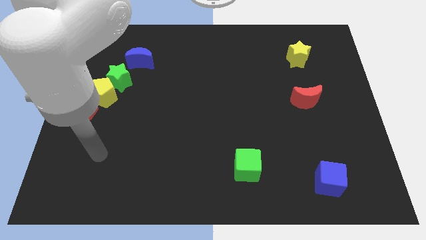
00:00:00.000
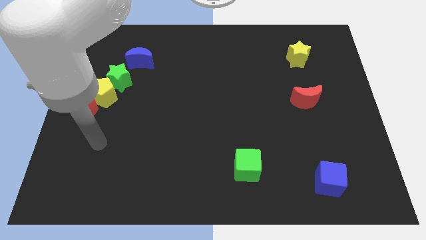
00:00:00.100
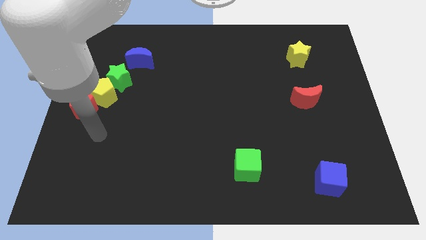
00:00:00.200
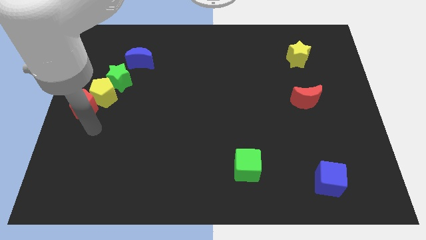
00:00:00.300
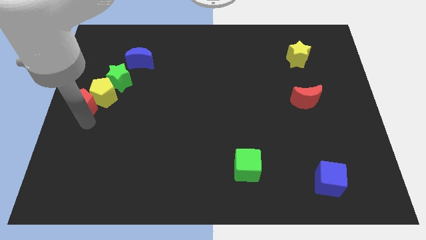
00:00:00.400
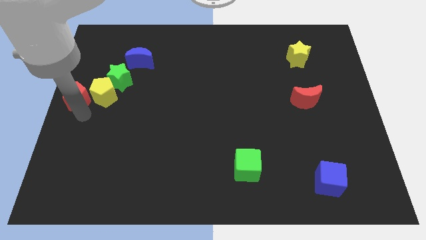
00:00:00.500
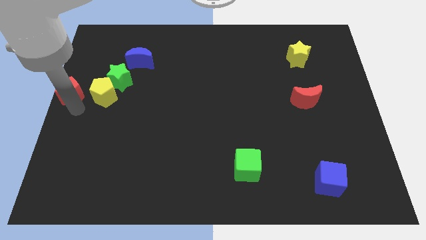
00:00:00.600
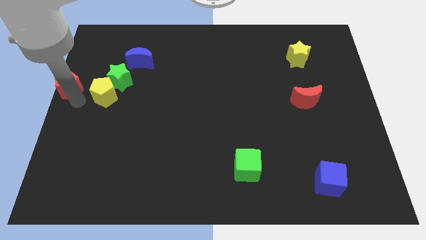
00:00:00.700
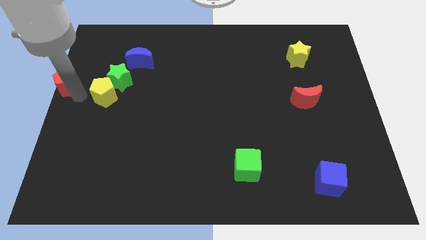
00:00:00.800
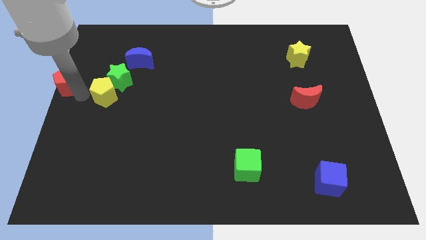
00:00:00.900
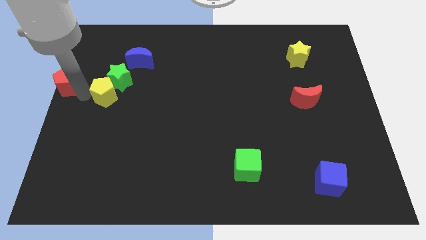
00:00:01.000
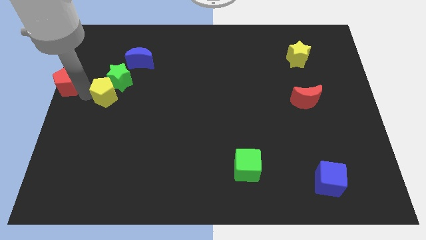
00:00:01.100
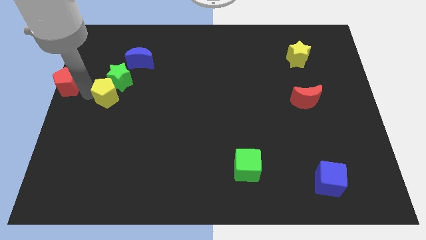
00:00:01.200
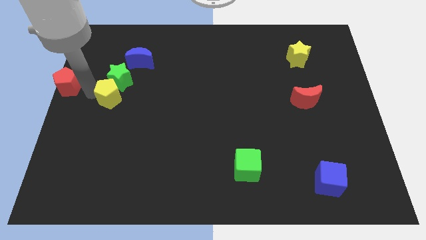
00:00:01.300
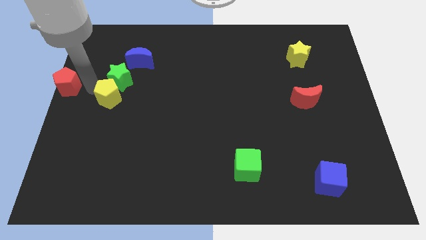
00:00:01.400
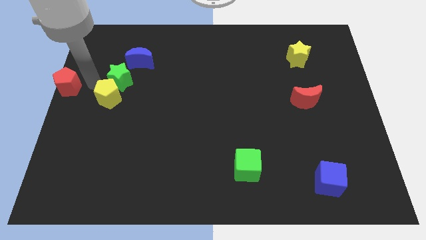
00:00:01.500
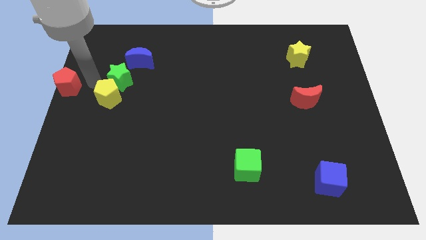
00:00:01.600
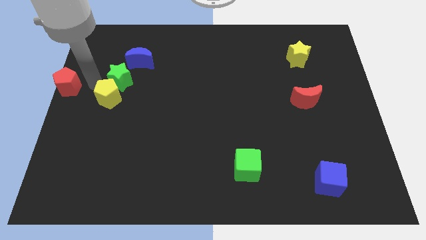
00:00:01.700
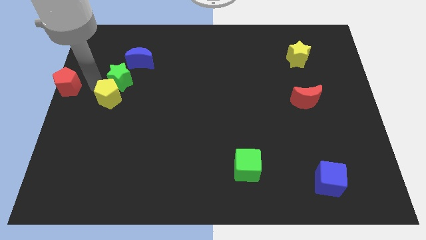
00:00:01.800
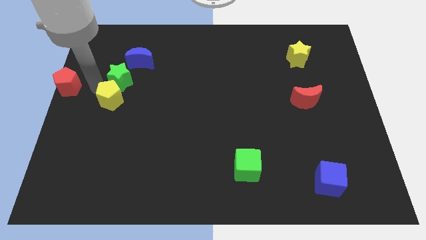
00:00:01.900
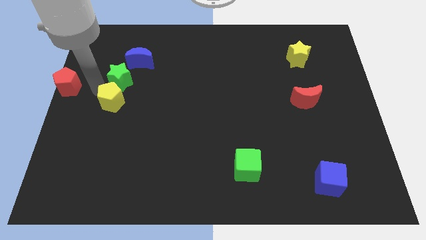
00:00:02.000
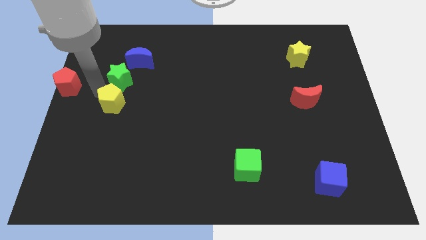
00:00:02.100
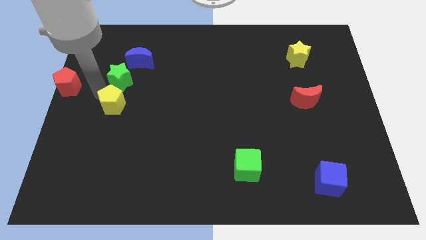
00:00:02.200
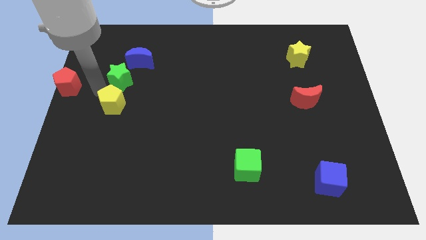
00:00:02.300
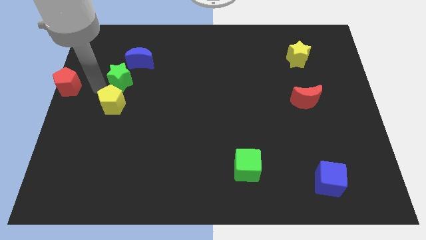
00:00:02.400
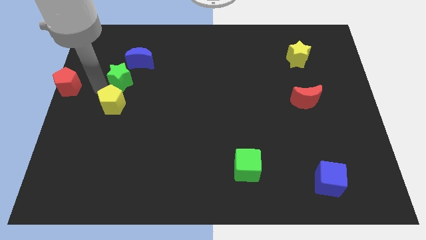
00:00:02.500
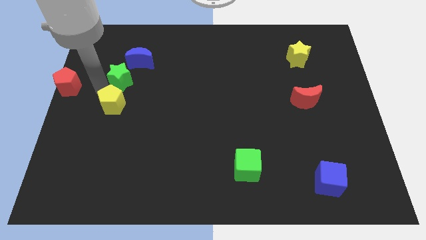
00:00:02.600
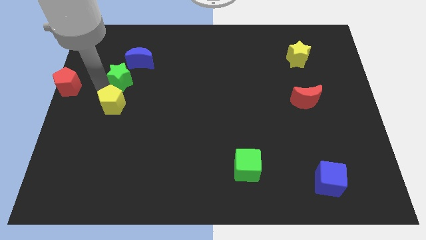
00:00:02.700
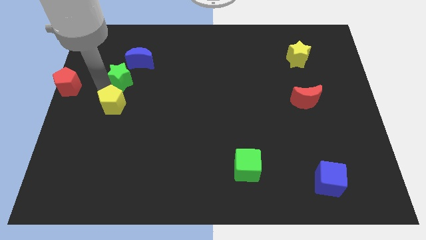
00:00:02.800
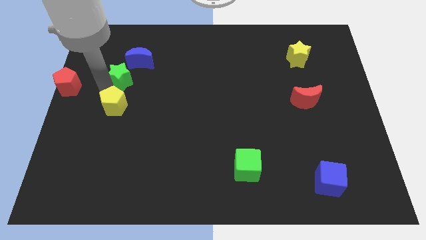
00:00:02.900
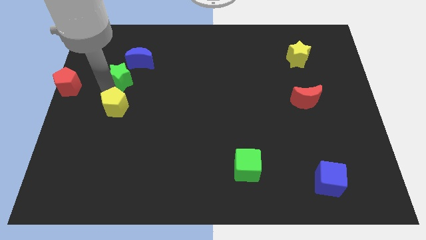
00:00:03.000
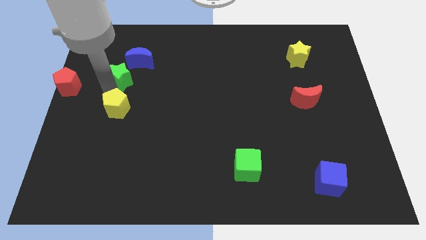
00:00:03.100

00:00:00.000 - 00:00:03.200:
pull the yellow pentagon apart from the green star and red pentagon

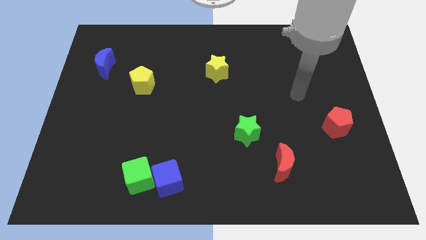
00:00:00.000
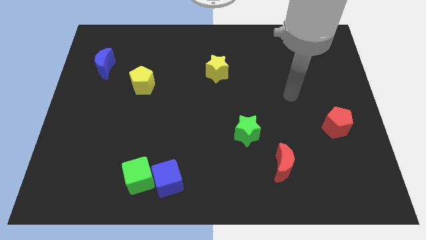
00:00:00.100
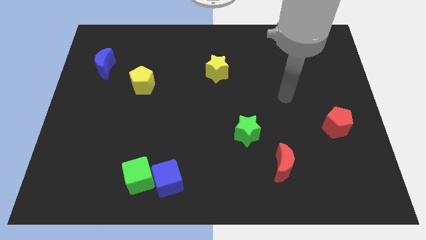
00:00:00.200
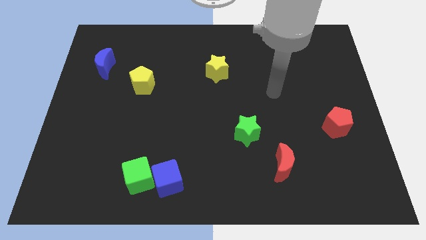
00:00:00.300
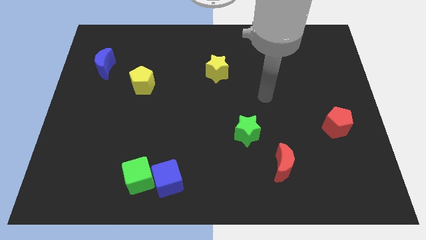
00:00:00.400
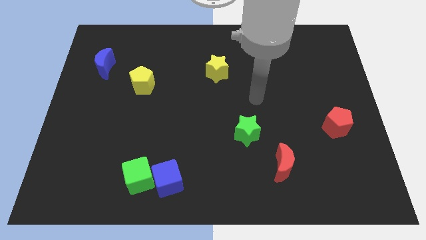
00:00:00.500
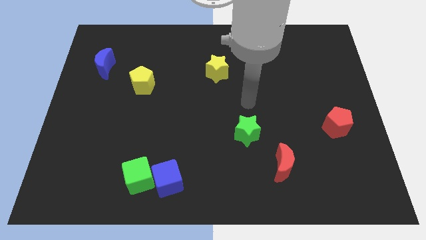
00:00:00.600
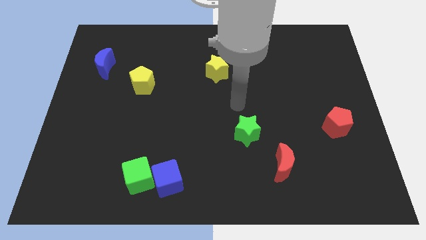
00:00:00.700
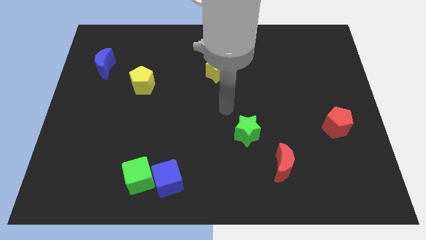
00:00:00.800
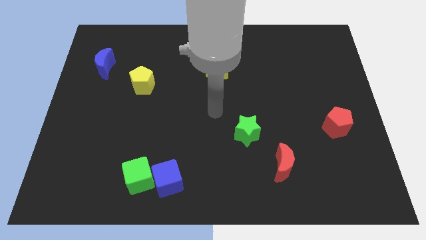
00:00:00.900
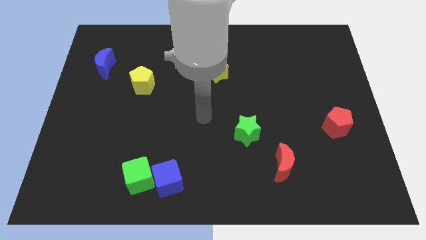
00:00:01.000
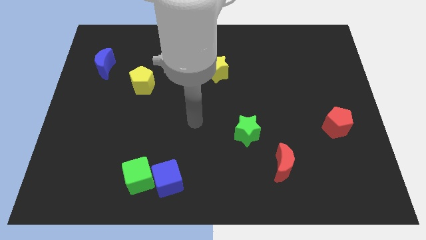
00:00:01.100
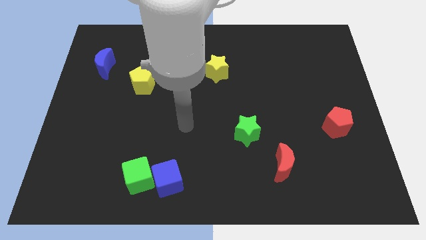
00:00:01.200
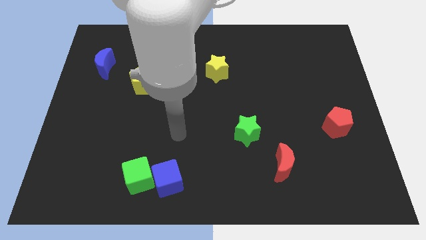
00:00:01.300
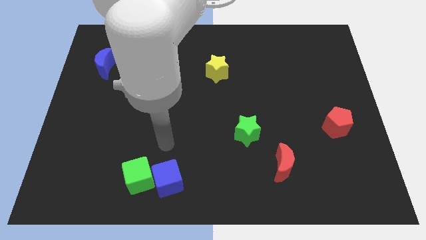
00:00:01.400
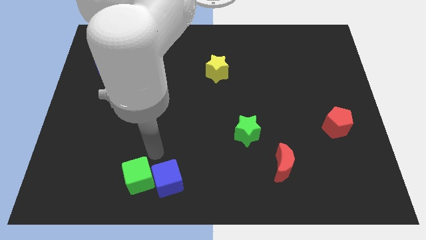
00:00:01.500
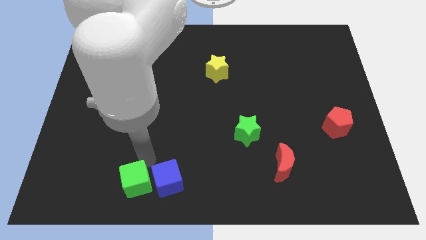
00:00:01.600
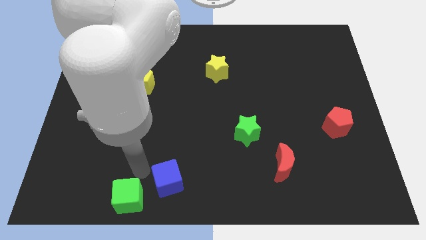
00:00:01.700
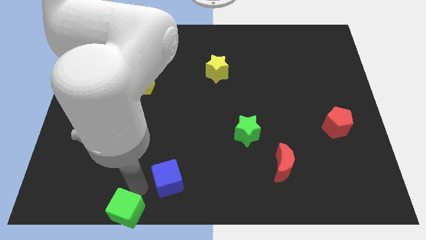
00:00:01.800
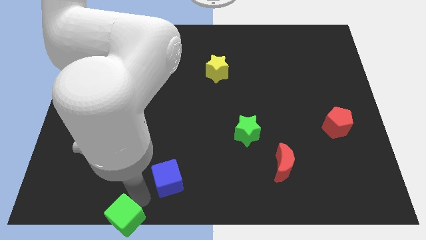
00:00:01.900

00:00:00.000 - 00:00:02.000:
pull the blue cube apart from the green cube

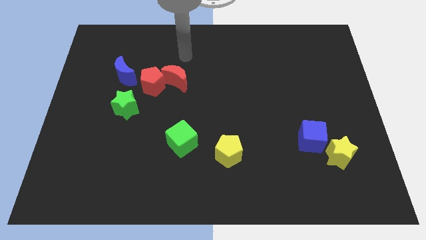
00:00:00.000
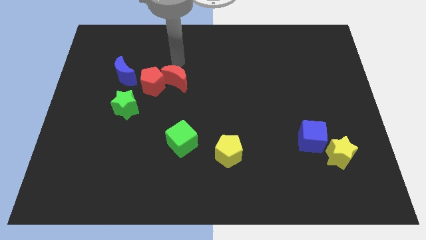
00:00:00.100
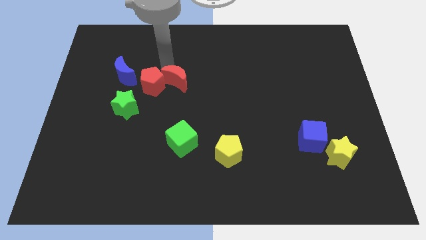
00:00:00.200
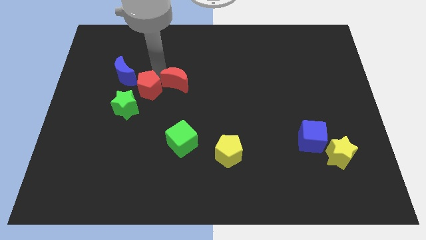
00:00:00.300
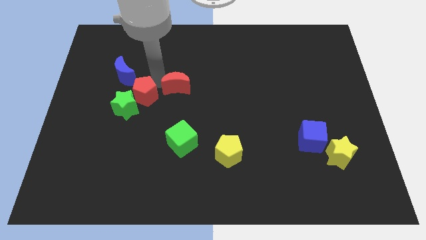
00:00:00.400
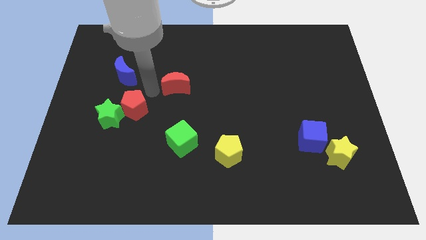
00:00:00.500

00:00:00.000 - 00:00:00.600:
move the red moon away from the red pentagon

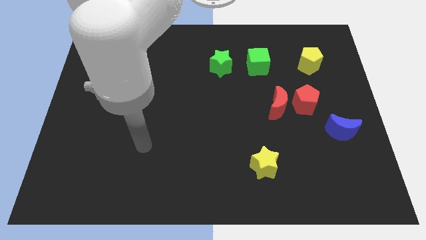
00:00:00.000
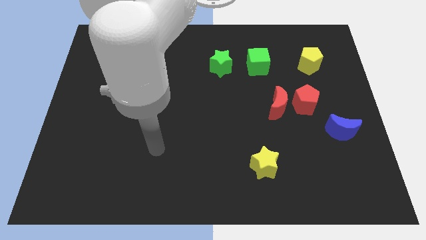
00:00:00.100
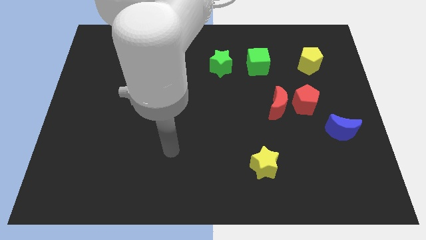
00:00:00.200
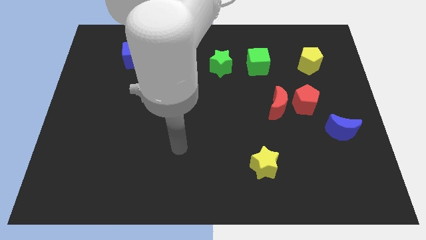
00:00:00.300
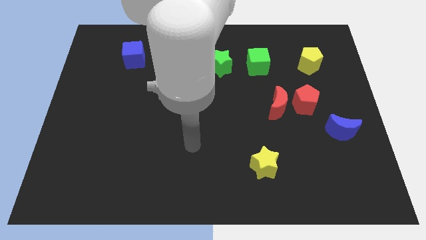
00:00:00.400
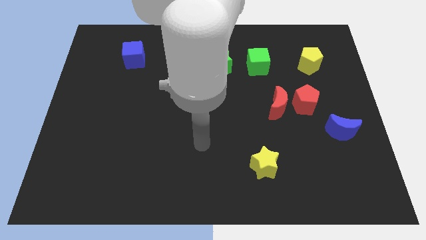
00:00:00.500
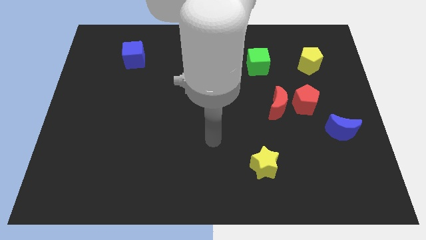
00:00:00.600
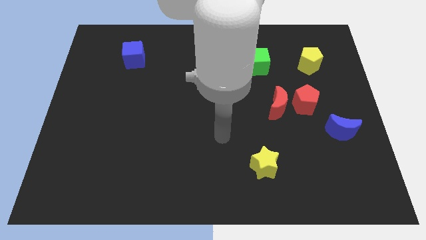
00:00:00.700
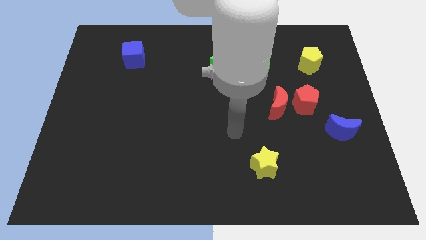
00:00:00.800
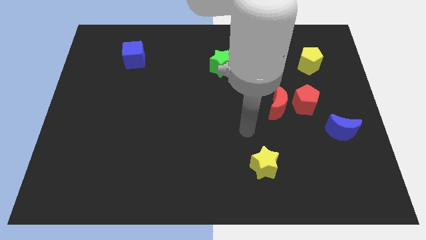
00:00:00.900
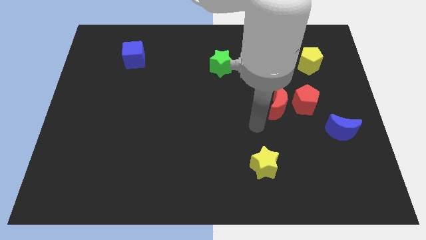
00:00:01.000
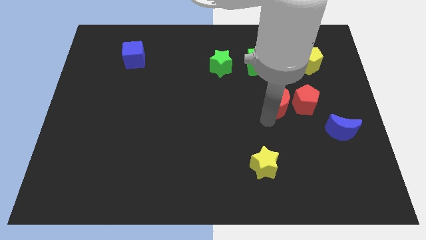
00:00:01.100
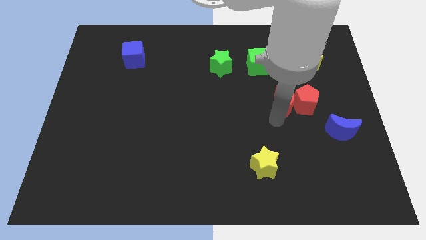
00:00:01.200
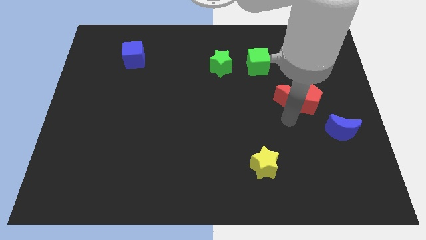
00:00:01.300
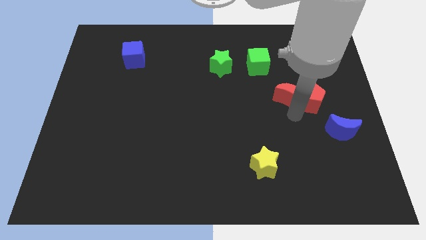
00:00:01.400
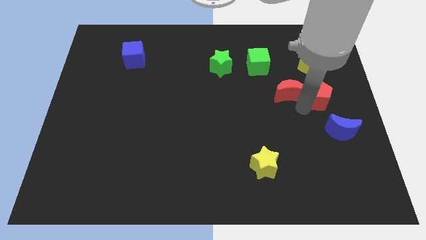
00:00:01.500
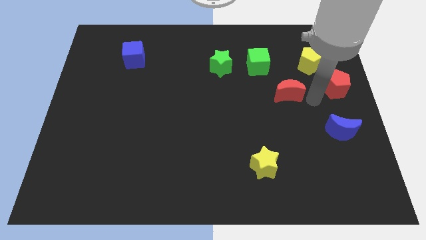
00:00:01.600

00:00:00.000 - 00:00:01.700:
separate the red moon from the red pentagon

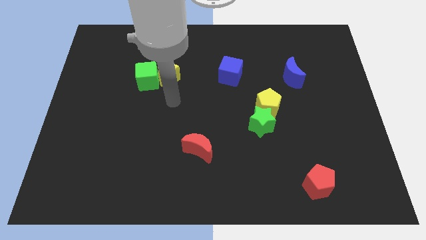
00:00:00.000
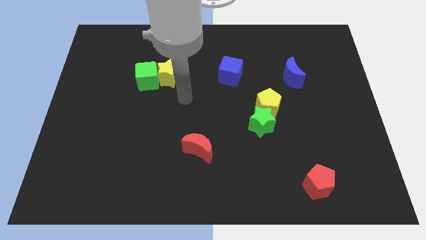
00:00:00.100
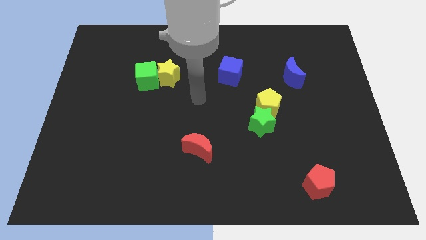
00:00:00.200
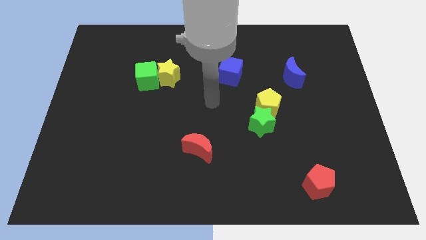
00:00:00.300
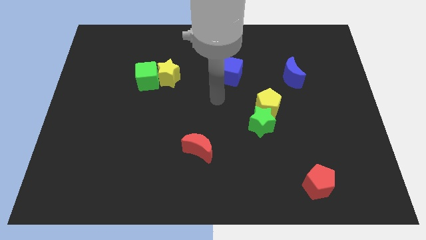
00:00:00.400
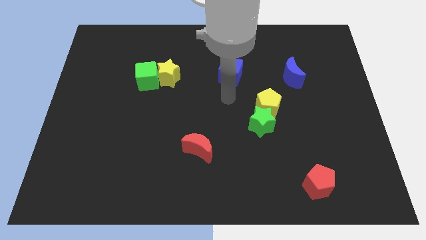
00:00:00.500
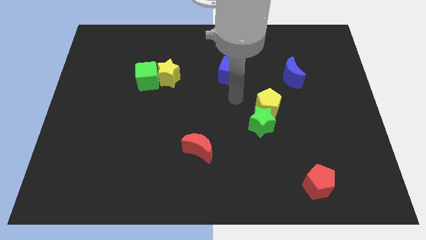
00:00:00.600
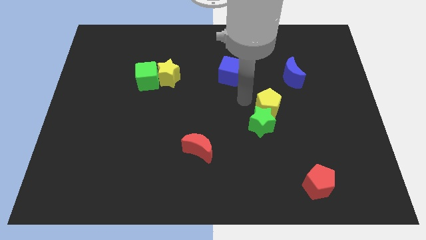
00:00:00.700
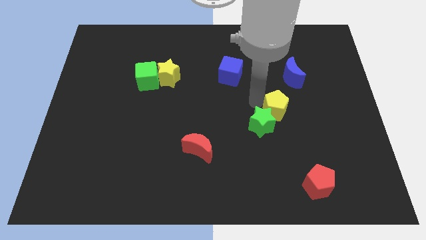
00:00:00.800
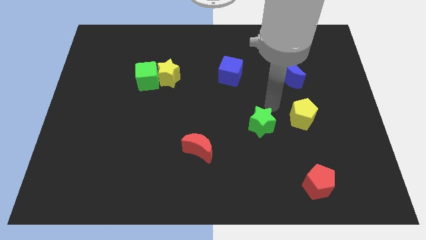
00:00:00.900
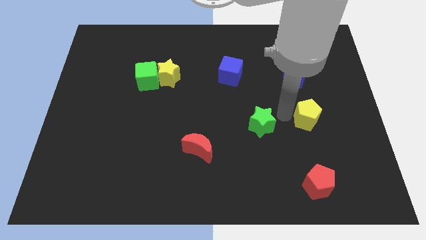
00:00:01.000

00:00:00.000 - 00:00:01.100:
pull the green star apart from the yellow pentagon

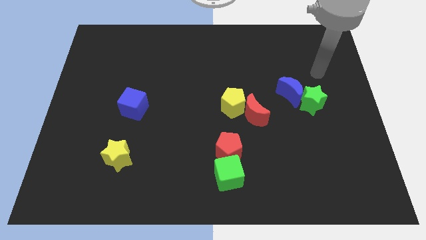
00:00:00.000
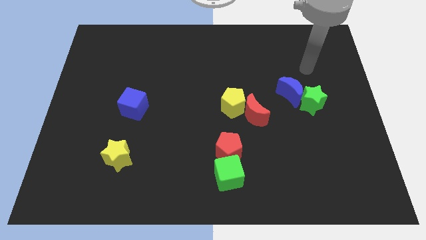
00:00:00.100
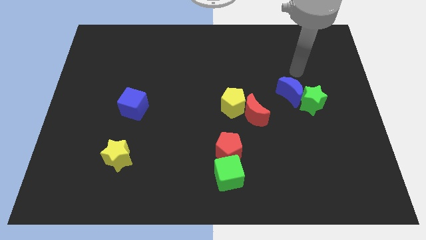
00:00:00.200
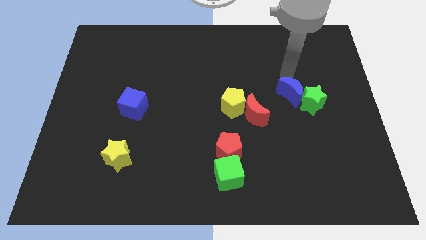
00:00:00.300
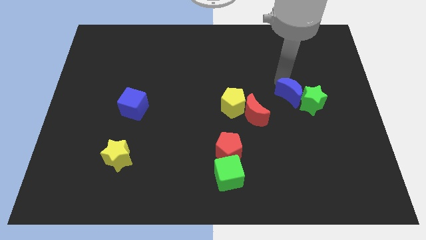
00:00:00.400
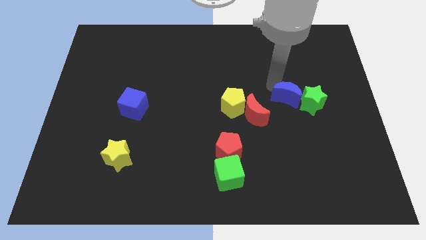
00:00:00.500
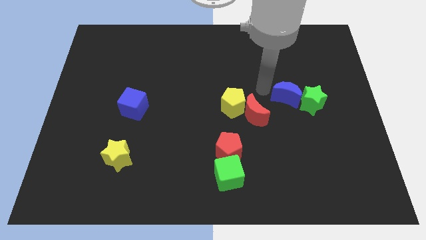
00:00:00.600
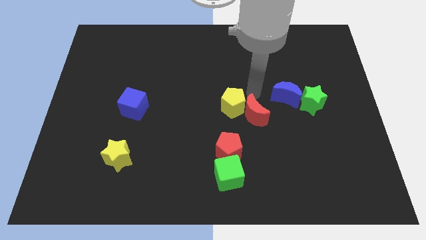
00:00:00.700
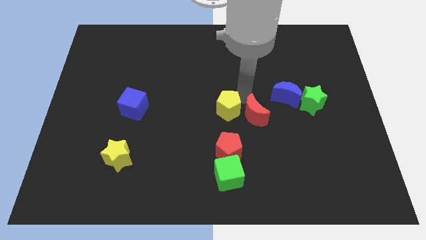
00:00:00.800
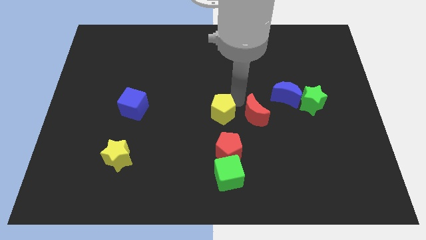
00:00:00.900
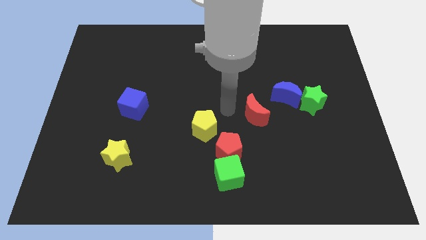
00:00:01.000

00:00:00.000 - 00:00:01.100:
move the red moon away from the yellow pentagon
